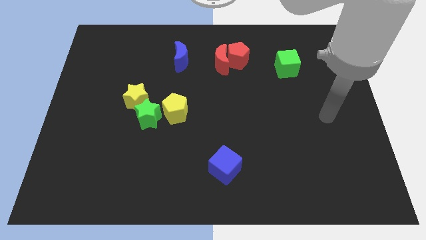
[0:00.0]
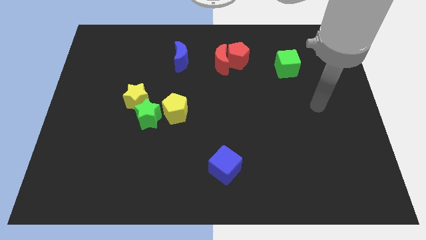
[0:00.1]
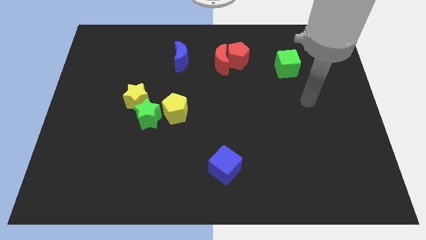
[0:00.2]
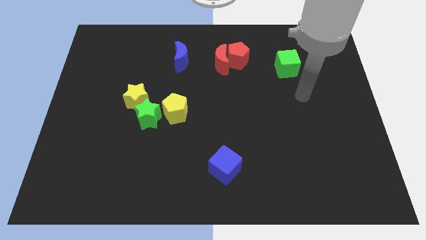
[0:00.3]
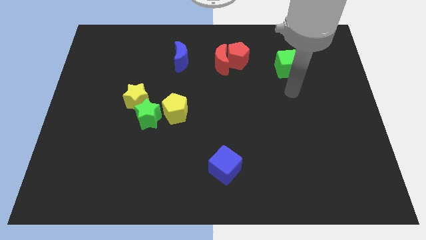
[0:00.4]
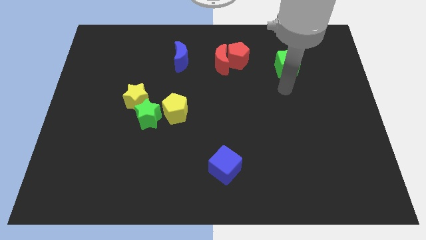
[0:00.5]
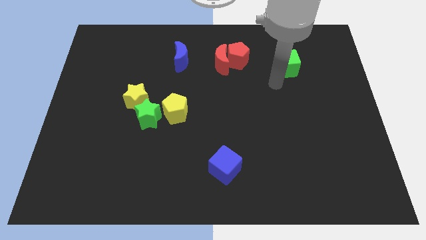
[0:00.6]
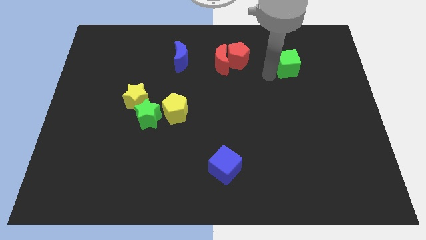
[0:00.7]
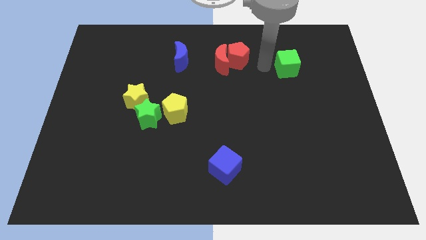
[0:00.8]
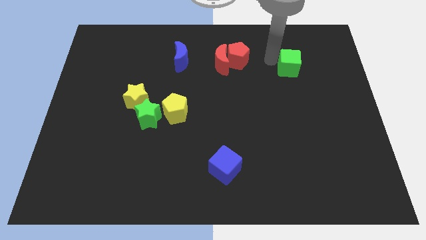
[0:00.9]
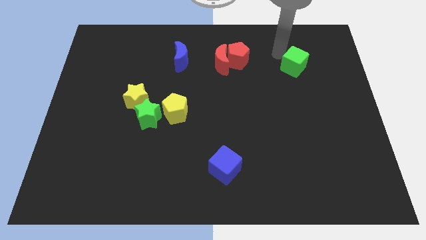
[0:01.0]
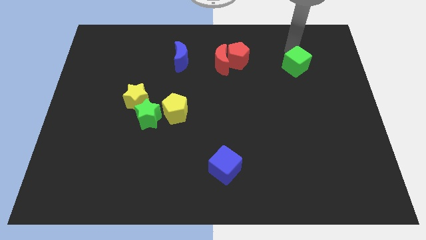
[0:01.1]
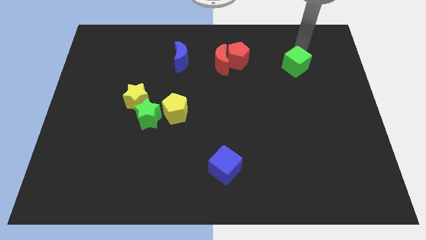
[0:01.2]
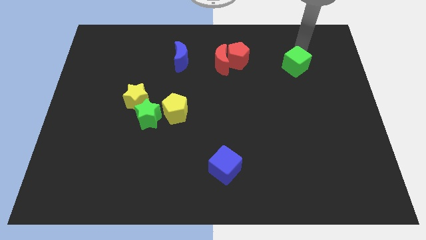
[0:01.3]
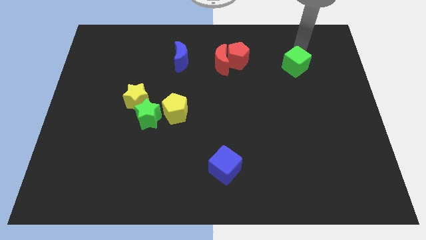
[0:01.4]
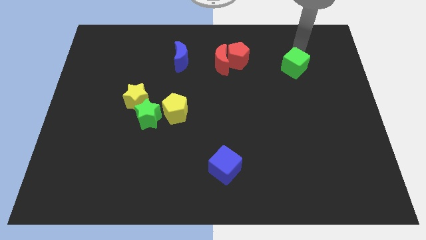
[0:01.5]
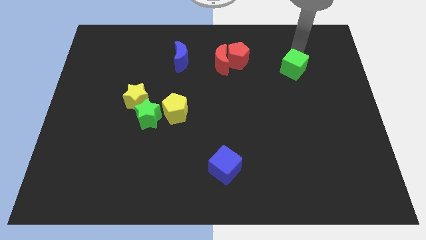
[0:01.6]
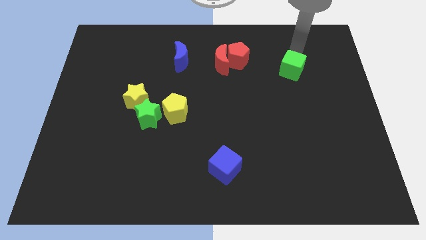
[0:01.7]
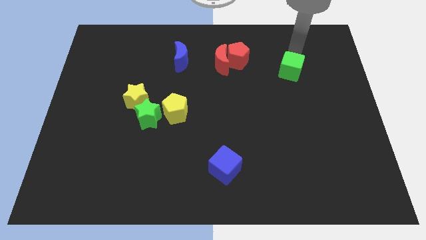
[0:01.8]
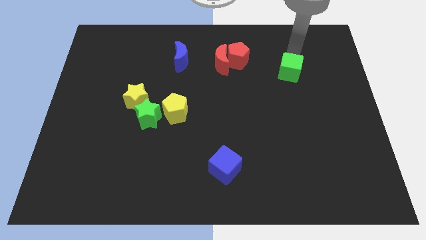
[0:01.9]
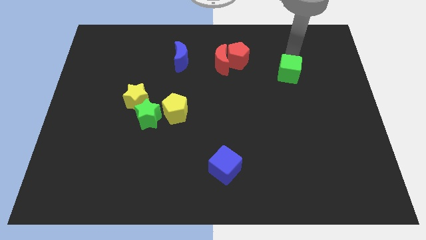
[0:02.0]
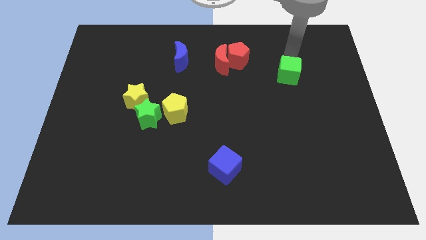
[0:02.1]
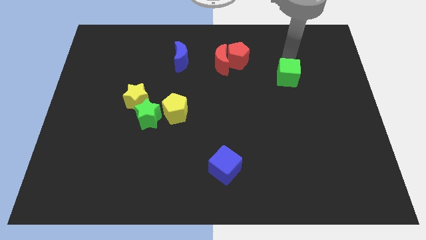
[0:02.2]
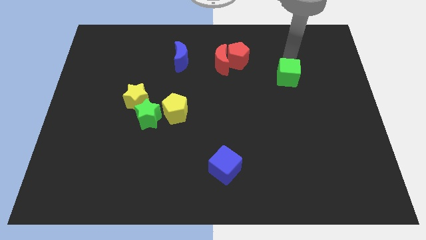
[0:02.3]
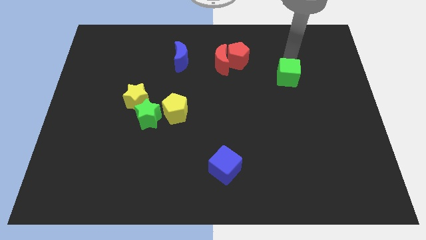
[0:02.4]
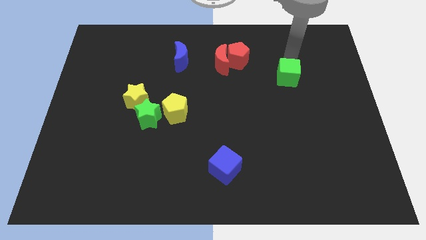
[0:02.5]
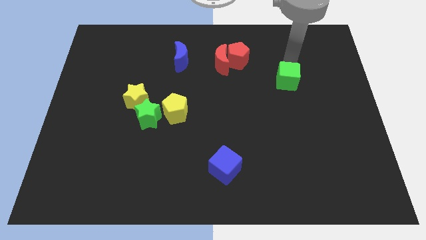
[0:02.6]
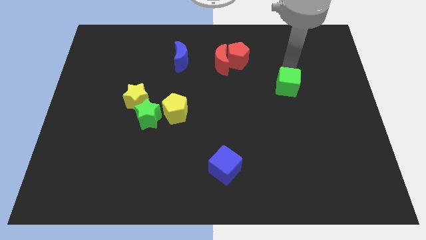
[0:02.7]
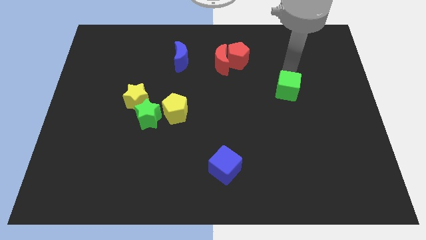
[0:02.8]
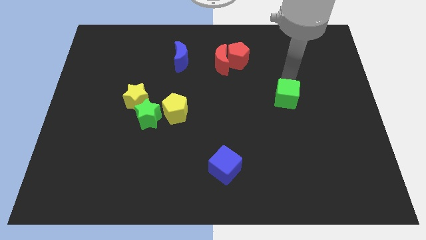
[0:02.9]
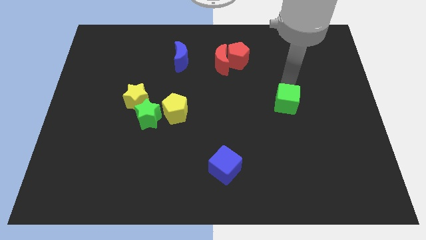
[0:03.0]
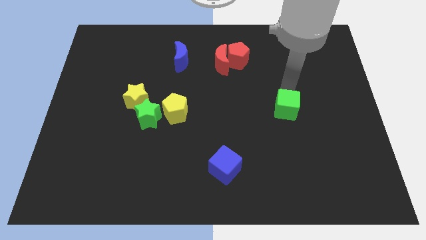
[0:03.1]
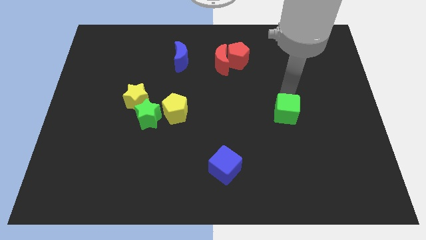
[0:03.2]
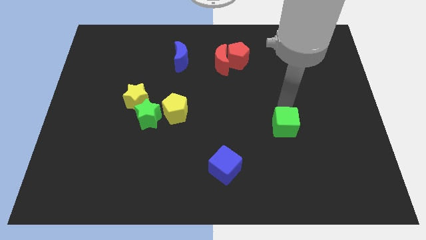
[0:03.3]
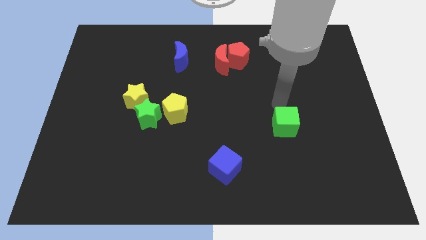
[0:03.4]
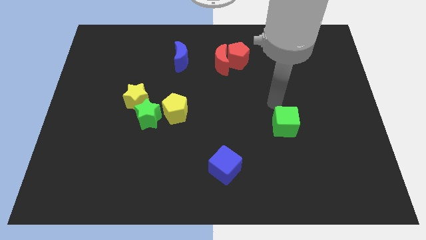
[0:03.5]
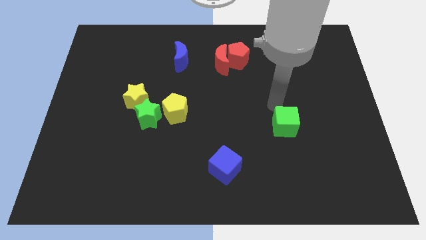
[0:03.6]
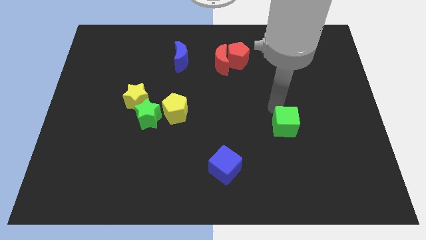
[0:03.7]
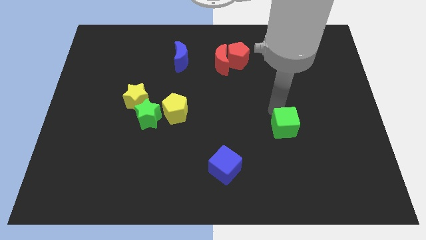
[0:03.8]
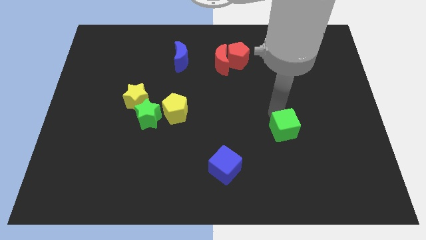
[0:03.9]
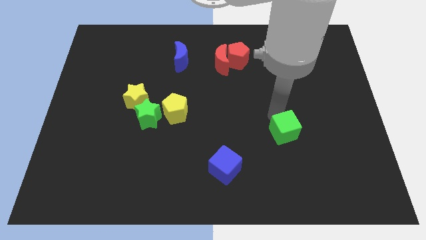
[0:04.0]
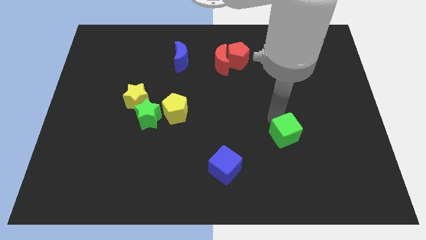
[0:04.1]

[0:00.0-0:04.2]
push the green cube downwards

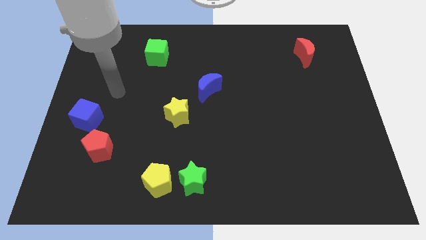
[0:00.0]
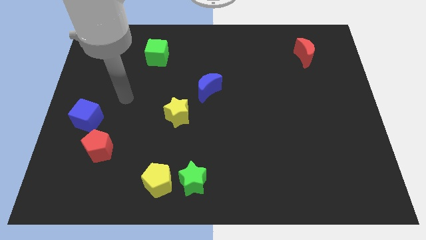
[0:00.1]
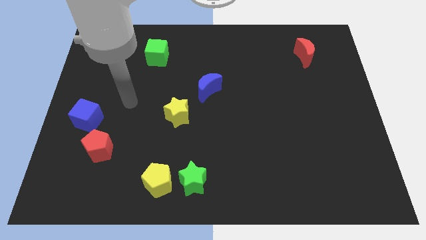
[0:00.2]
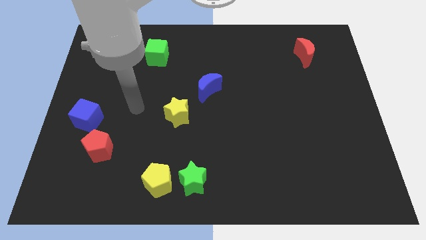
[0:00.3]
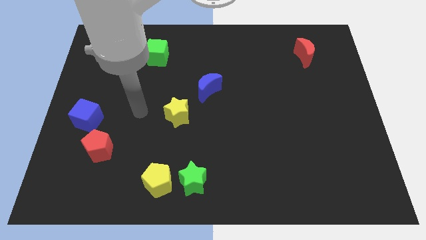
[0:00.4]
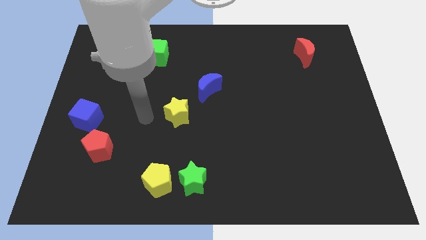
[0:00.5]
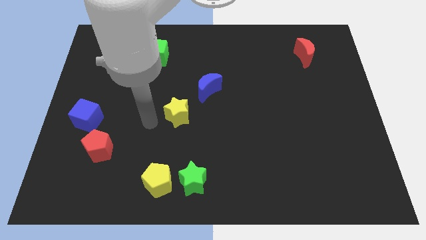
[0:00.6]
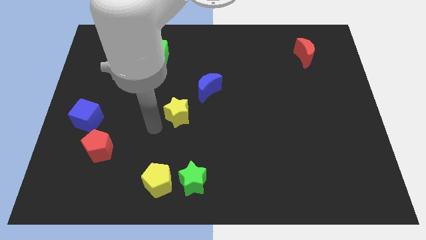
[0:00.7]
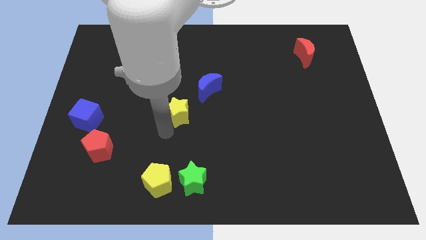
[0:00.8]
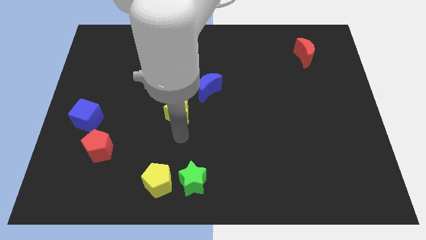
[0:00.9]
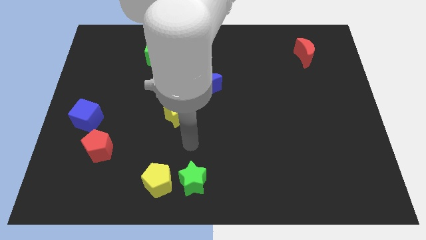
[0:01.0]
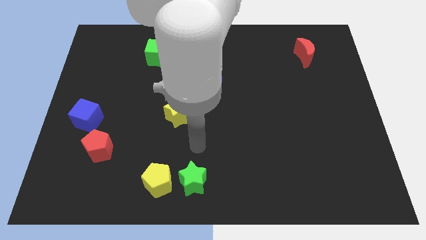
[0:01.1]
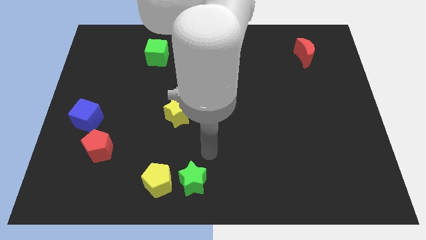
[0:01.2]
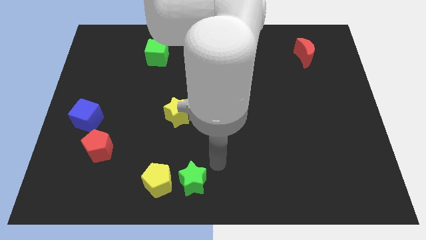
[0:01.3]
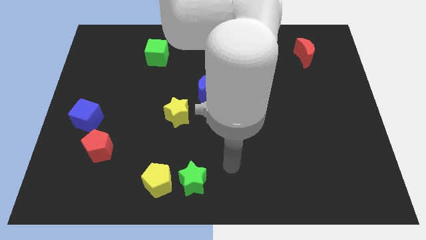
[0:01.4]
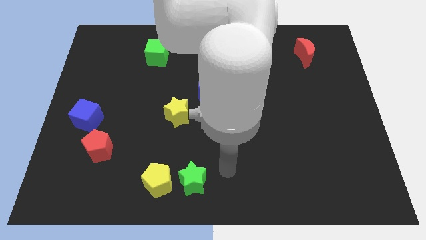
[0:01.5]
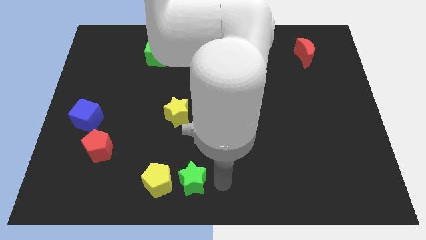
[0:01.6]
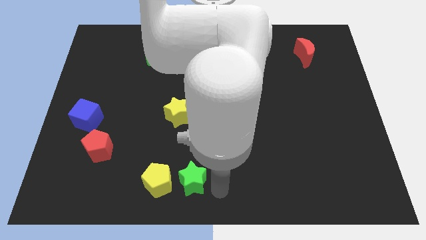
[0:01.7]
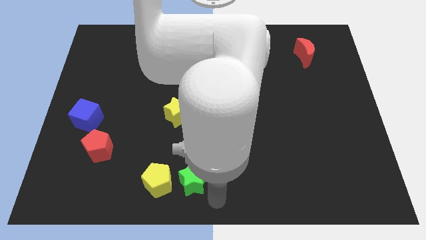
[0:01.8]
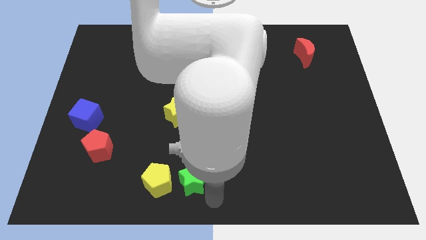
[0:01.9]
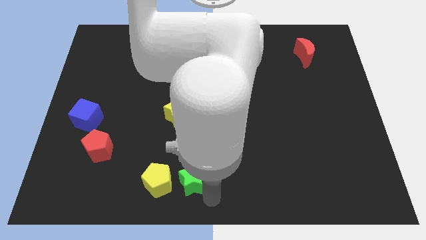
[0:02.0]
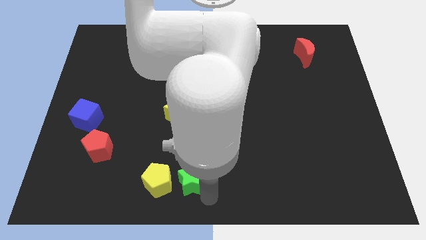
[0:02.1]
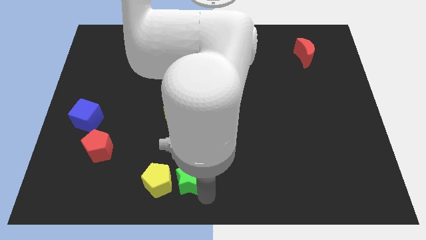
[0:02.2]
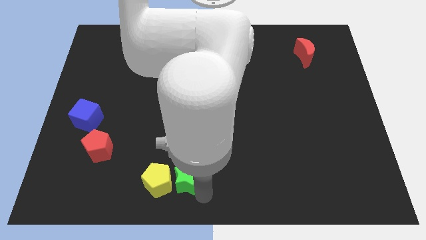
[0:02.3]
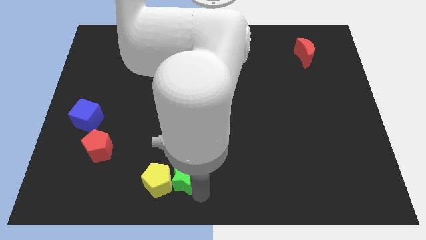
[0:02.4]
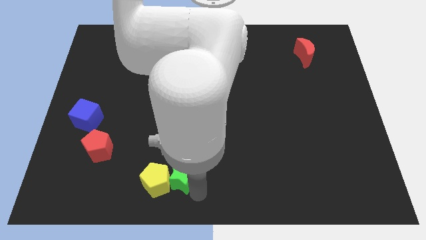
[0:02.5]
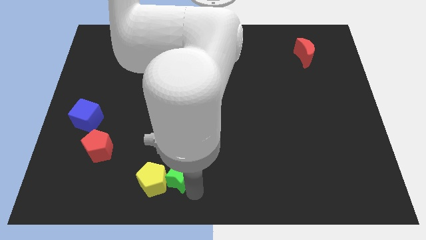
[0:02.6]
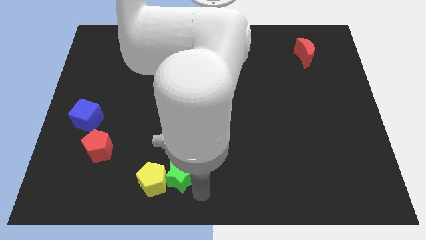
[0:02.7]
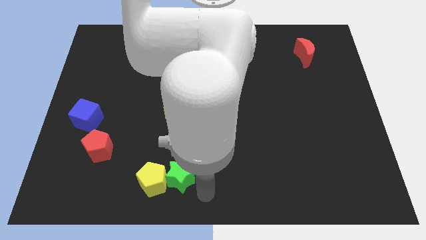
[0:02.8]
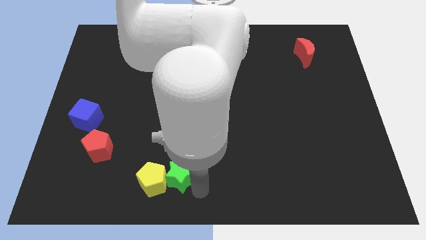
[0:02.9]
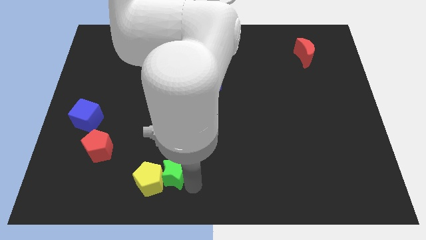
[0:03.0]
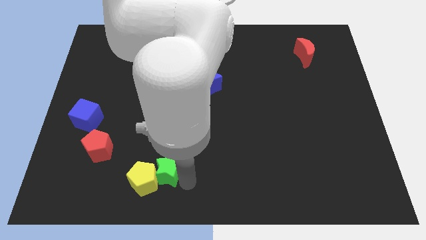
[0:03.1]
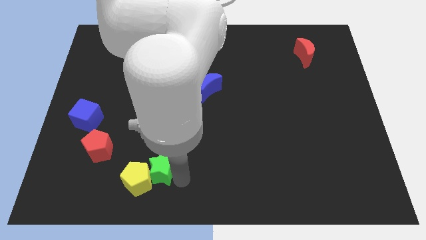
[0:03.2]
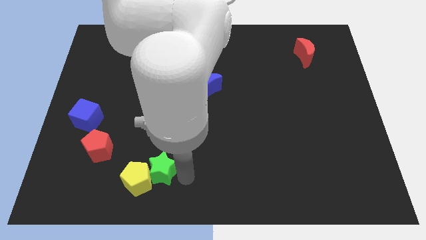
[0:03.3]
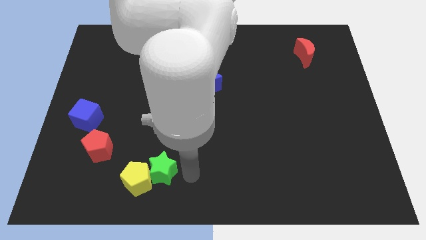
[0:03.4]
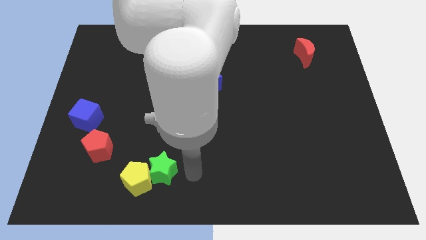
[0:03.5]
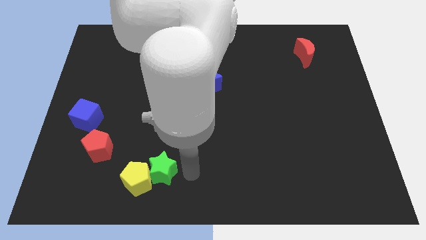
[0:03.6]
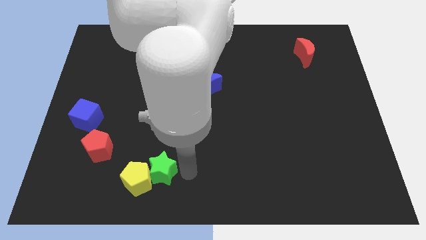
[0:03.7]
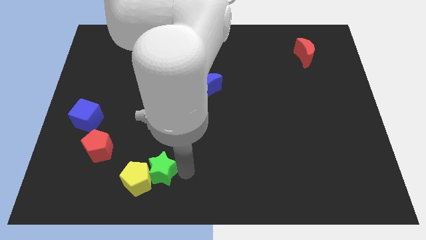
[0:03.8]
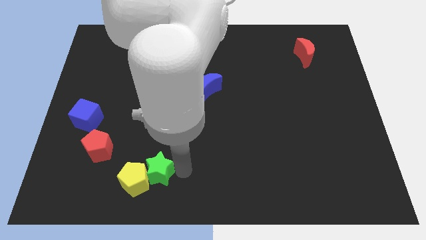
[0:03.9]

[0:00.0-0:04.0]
slightly push the green star to the left
